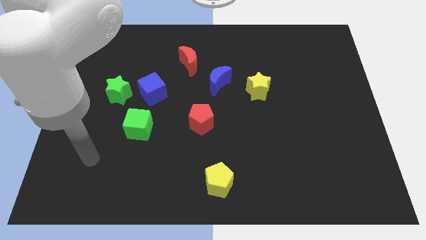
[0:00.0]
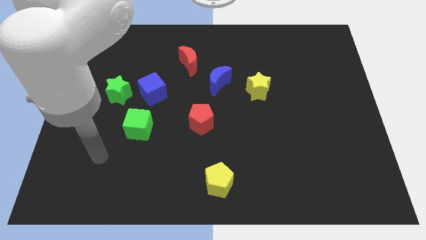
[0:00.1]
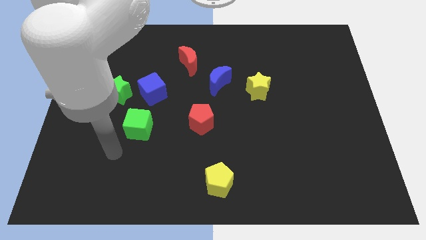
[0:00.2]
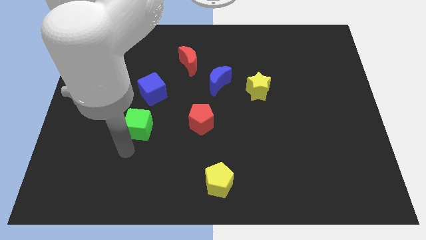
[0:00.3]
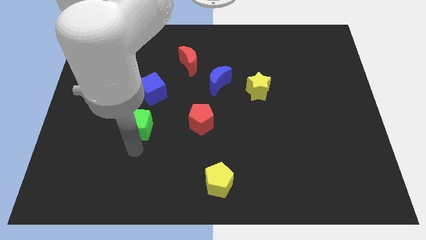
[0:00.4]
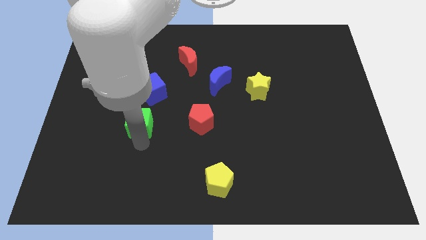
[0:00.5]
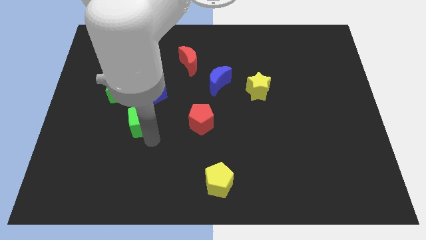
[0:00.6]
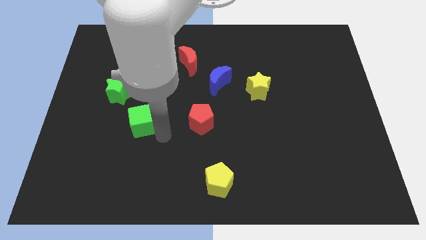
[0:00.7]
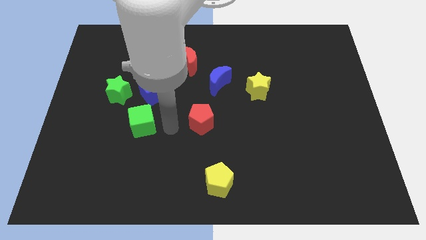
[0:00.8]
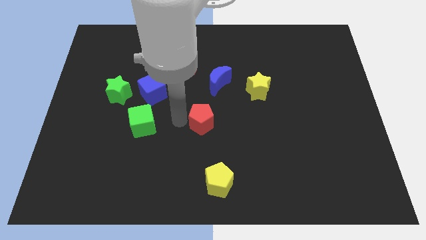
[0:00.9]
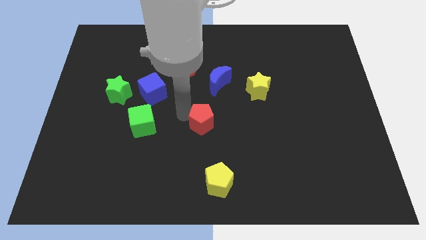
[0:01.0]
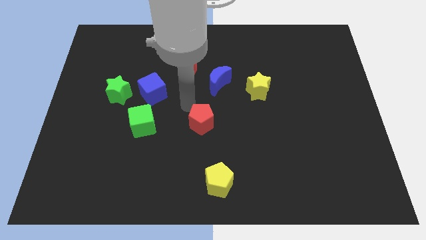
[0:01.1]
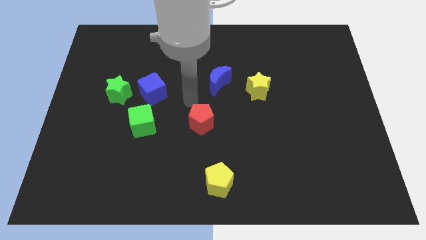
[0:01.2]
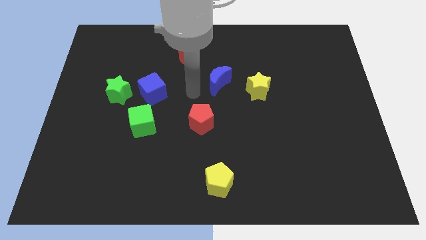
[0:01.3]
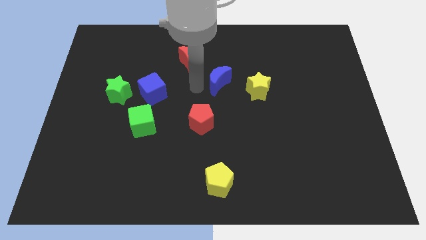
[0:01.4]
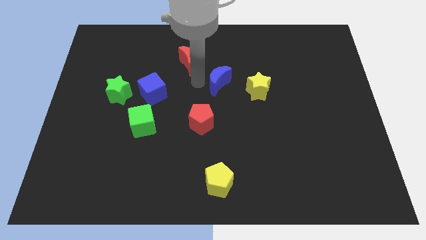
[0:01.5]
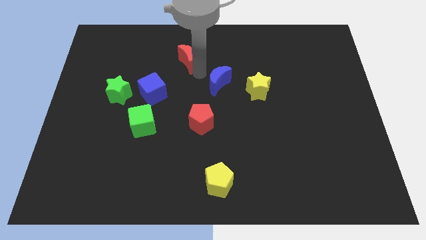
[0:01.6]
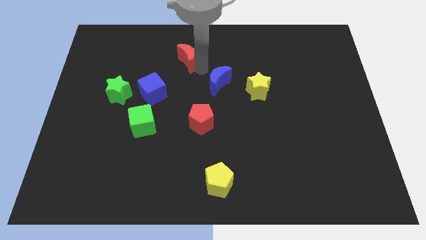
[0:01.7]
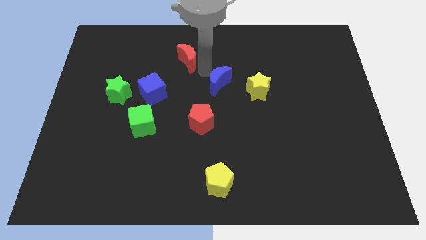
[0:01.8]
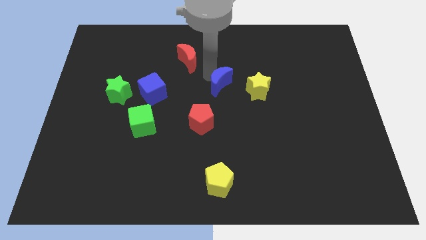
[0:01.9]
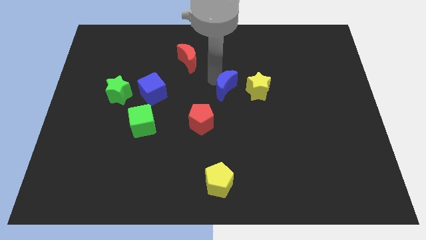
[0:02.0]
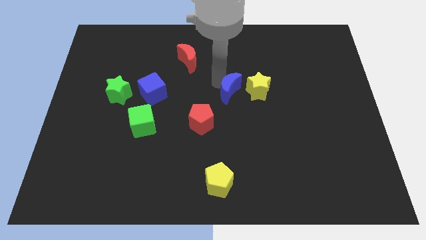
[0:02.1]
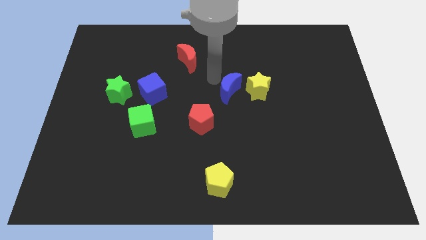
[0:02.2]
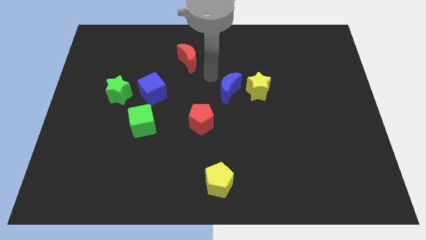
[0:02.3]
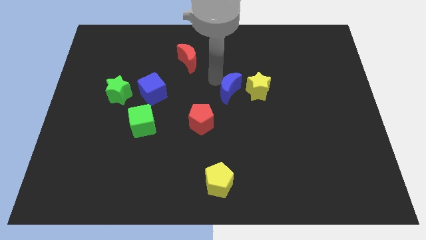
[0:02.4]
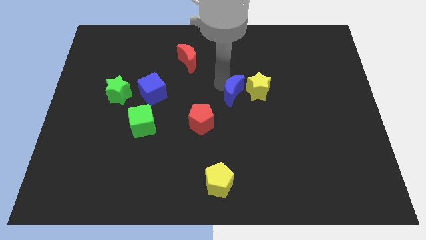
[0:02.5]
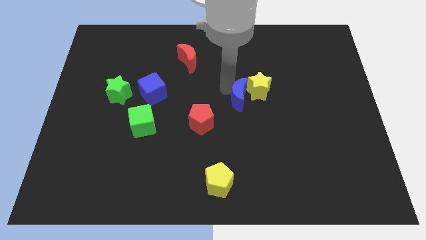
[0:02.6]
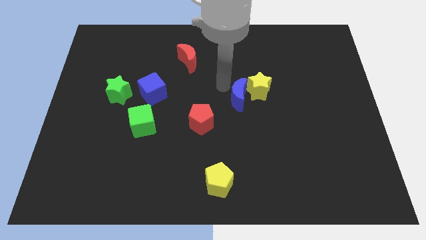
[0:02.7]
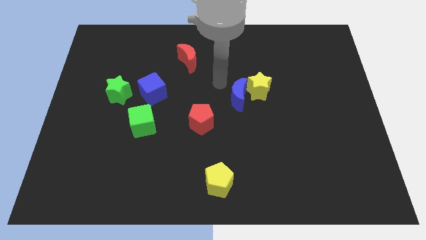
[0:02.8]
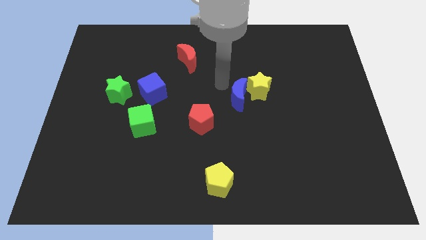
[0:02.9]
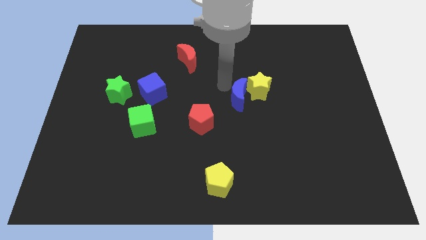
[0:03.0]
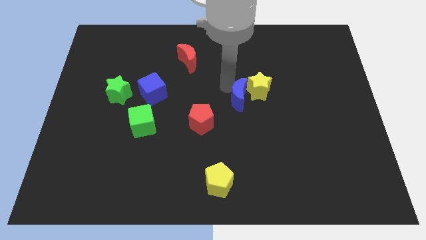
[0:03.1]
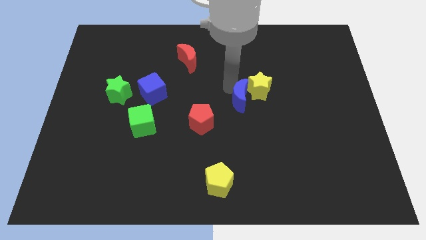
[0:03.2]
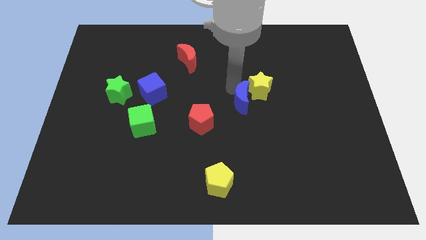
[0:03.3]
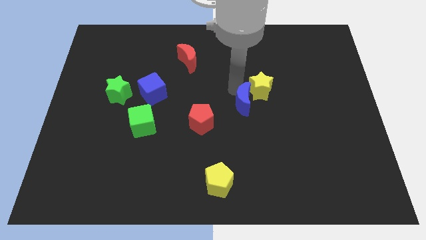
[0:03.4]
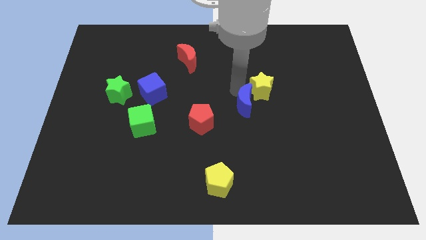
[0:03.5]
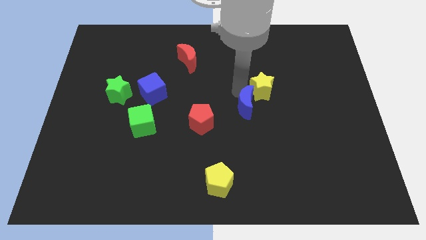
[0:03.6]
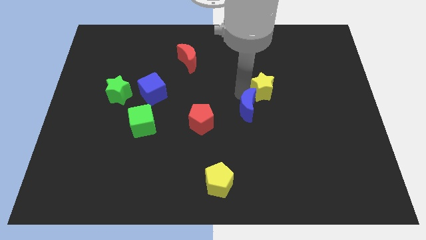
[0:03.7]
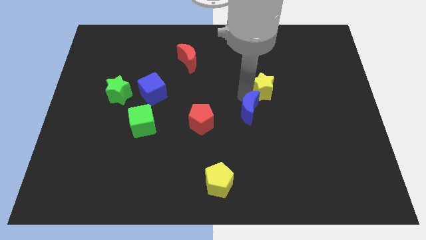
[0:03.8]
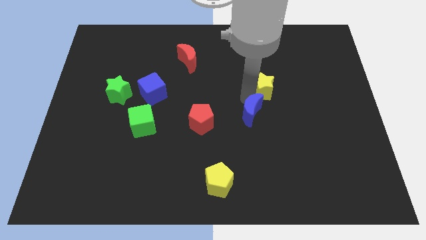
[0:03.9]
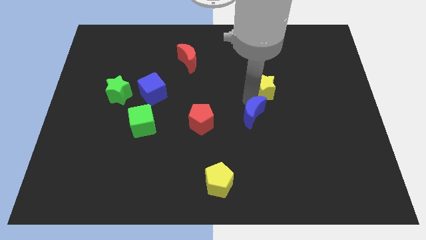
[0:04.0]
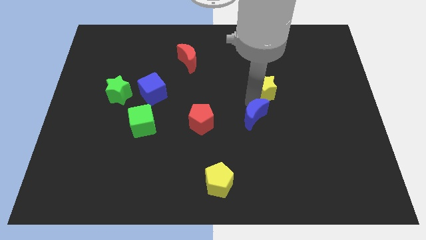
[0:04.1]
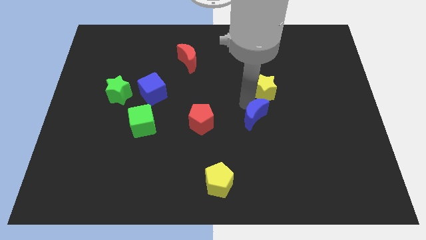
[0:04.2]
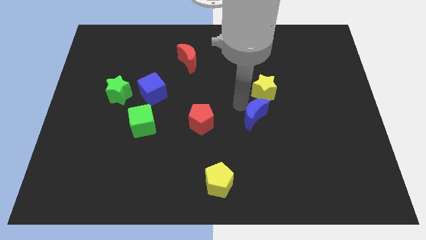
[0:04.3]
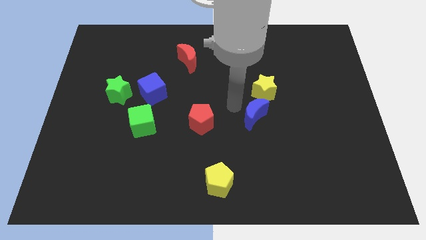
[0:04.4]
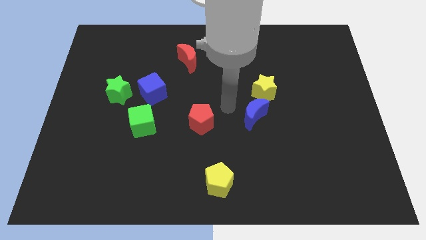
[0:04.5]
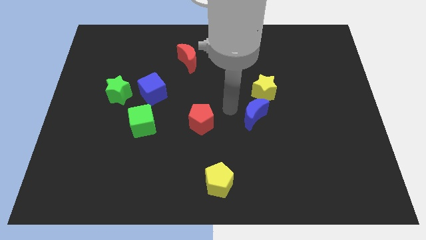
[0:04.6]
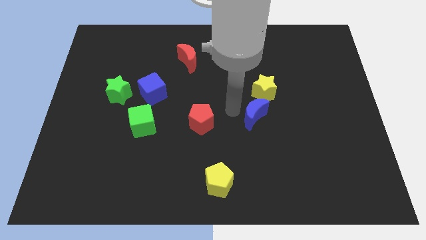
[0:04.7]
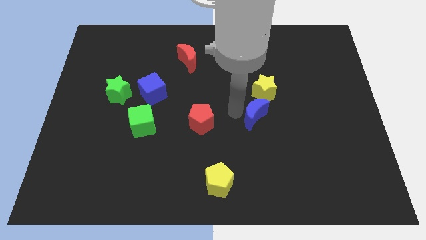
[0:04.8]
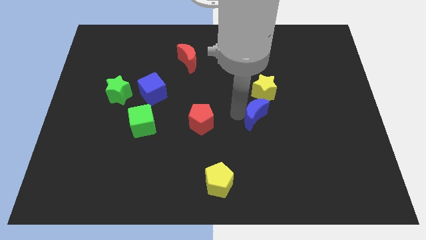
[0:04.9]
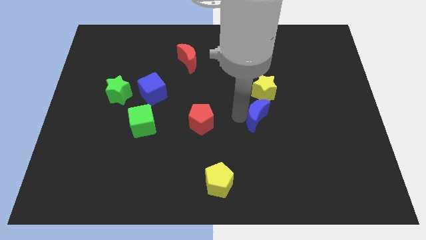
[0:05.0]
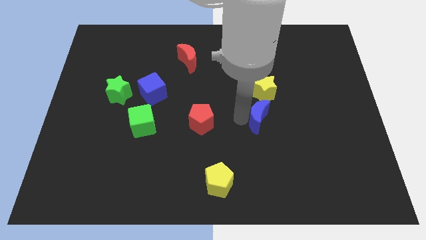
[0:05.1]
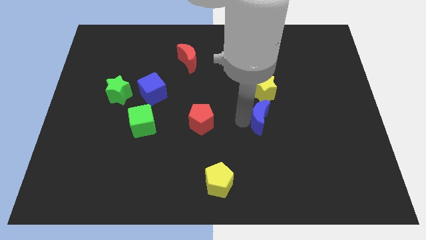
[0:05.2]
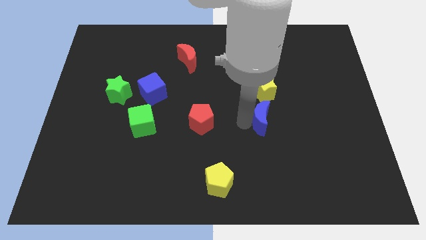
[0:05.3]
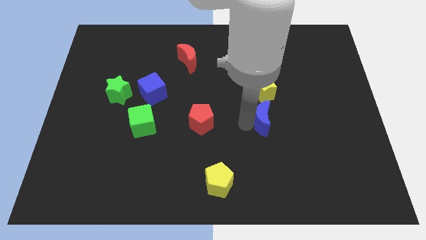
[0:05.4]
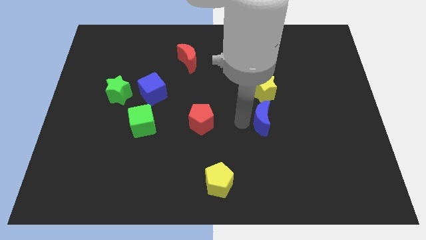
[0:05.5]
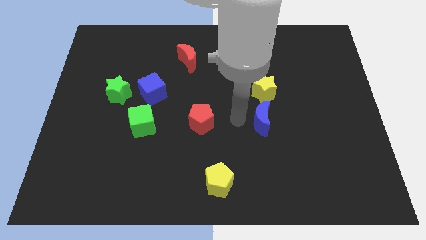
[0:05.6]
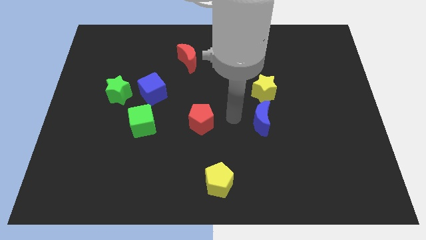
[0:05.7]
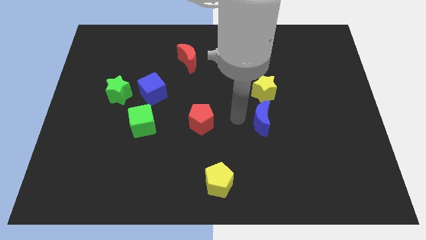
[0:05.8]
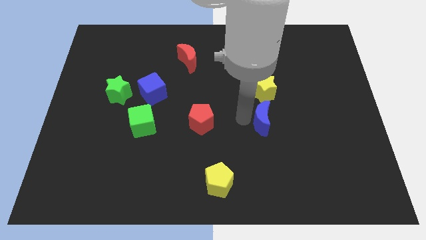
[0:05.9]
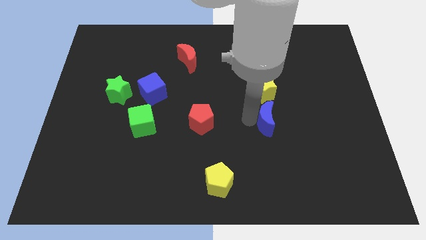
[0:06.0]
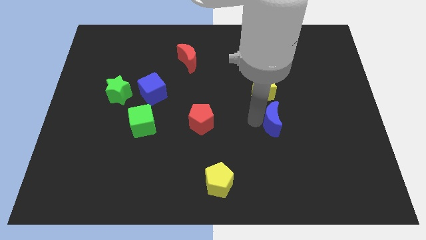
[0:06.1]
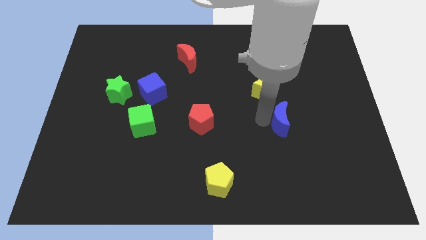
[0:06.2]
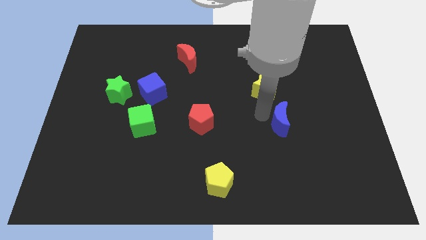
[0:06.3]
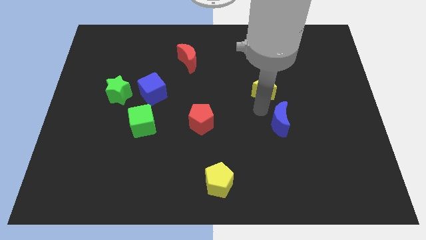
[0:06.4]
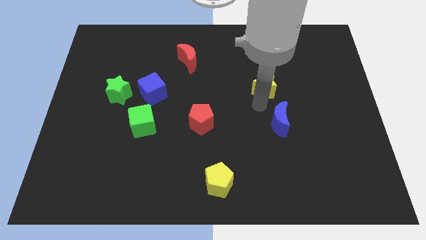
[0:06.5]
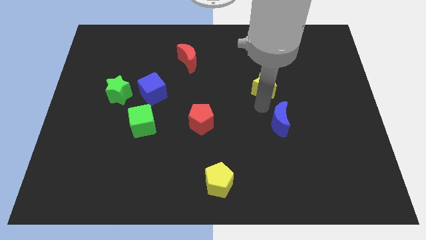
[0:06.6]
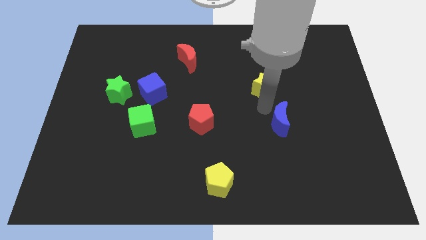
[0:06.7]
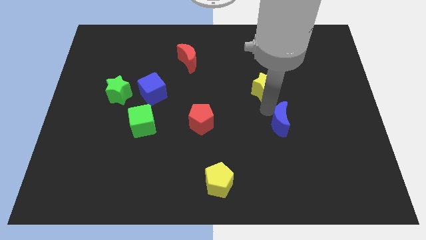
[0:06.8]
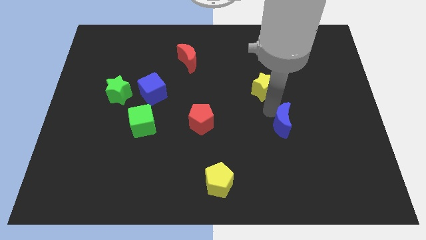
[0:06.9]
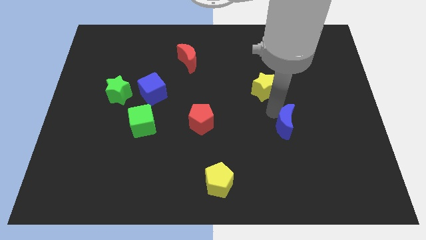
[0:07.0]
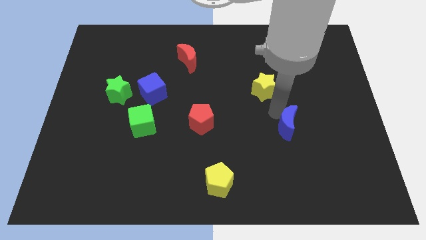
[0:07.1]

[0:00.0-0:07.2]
push the blue moon diagonally downwards and right

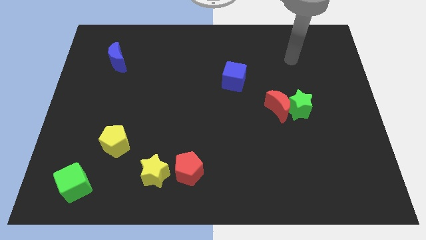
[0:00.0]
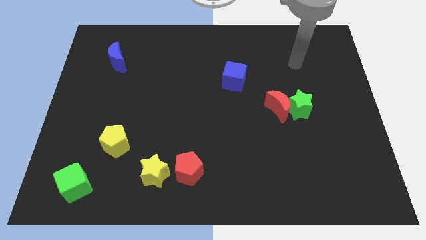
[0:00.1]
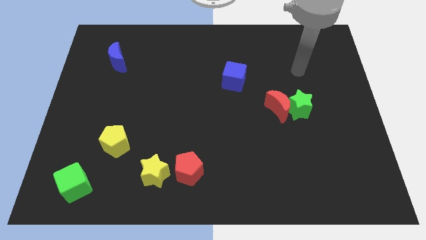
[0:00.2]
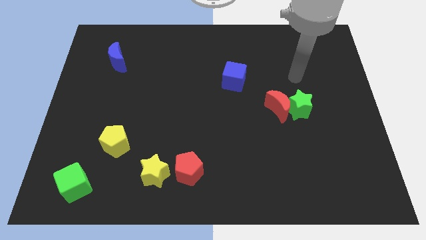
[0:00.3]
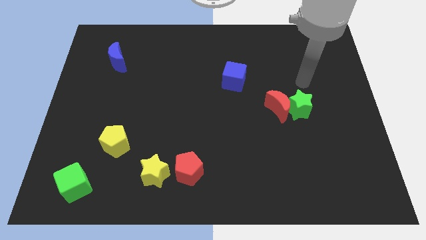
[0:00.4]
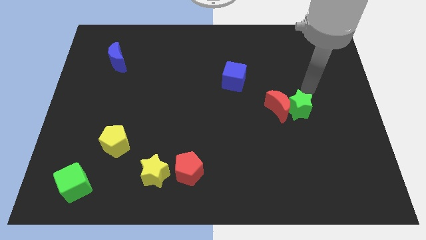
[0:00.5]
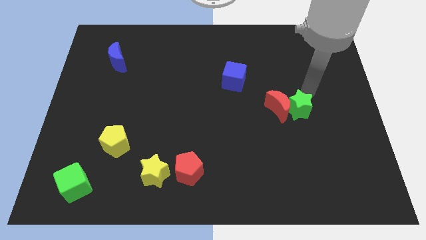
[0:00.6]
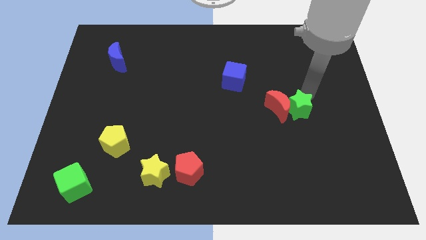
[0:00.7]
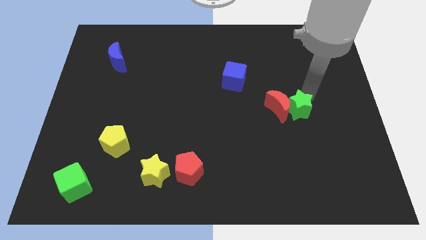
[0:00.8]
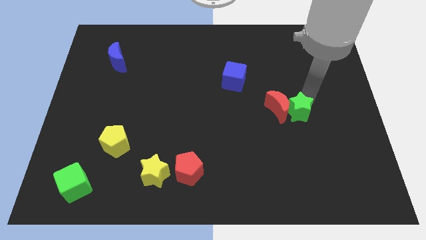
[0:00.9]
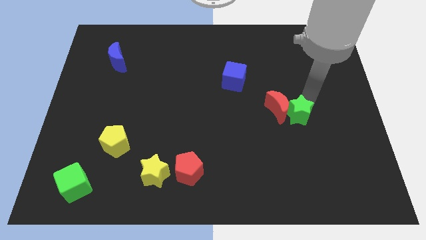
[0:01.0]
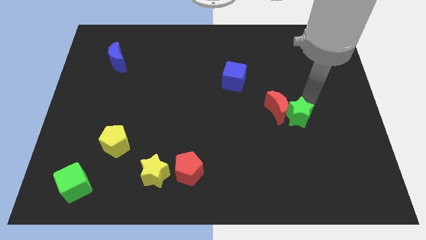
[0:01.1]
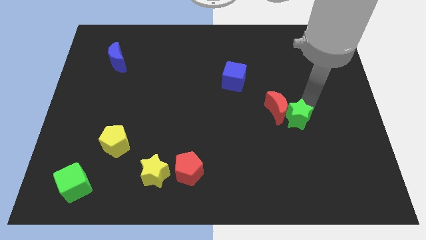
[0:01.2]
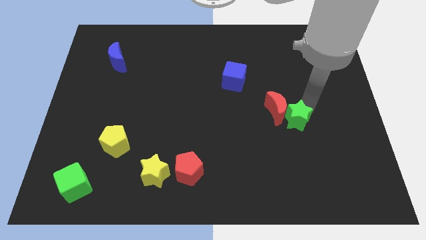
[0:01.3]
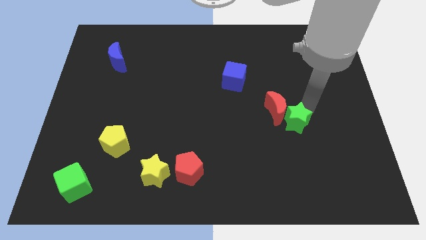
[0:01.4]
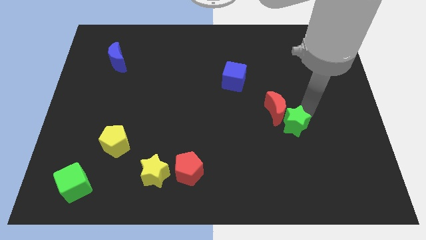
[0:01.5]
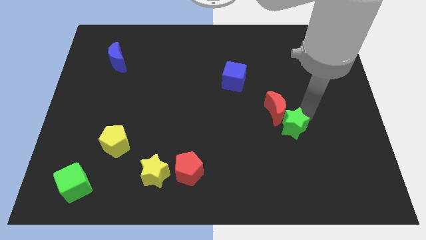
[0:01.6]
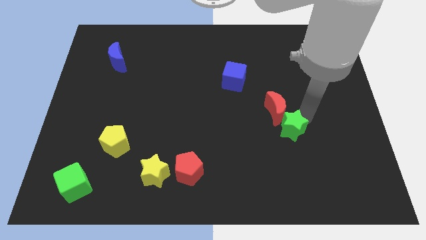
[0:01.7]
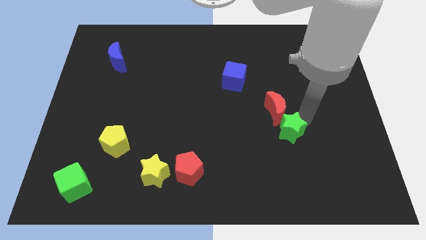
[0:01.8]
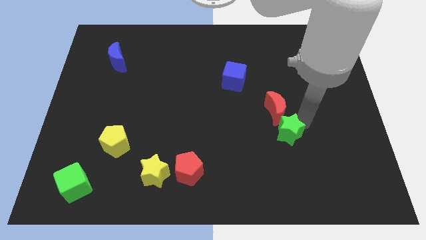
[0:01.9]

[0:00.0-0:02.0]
slightly slide the green star down and to the left
